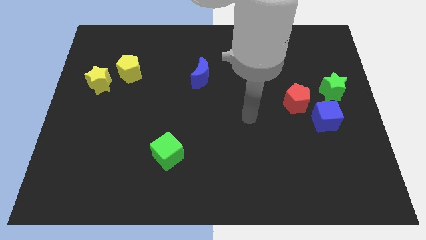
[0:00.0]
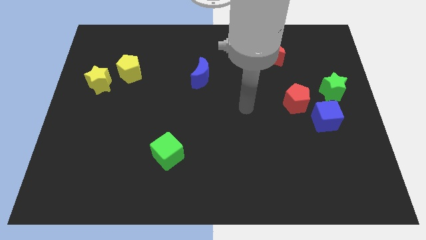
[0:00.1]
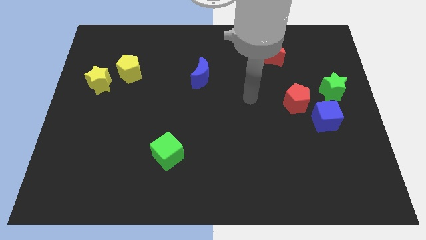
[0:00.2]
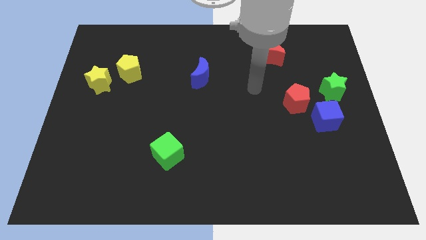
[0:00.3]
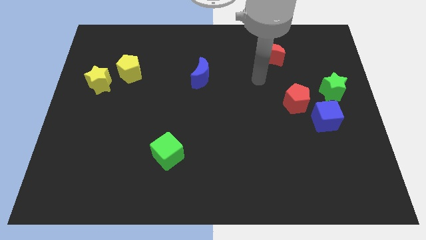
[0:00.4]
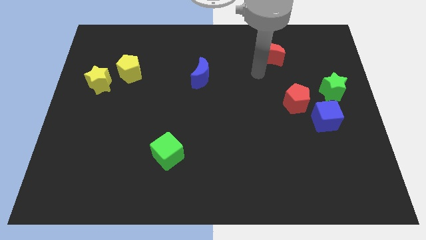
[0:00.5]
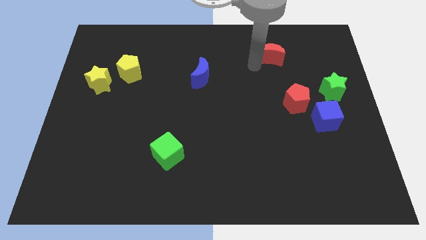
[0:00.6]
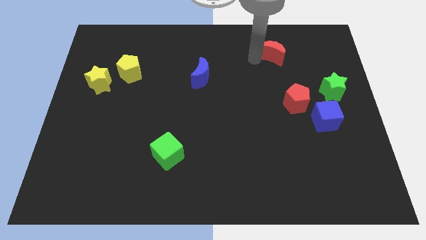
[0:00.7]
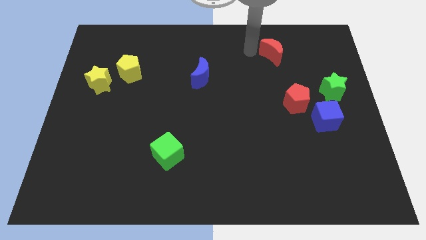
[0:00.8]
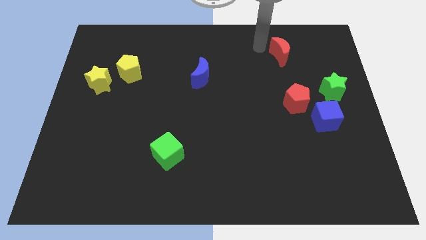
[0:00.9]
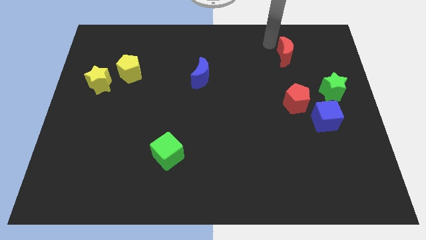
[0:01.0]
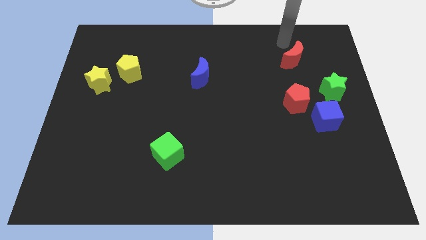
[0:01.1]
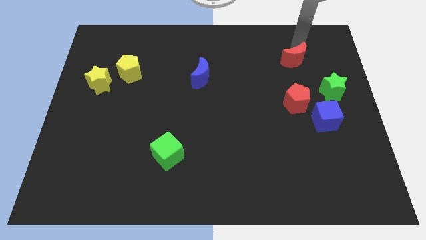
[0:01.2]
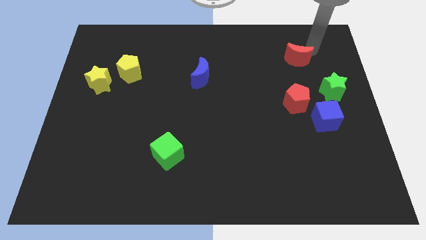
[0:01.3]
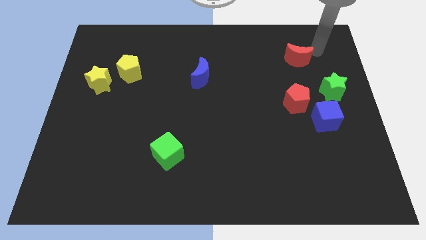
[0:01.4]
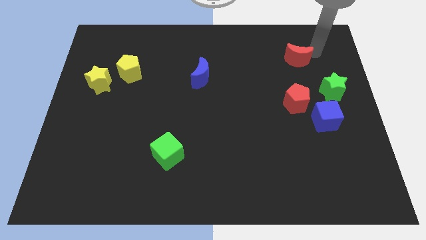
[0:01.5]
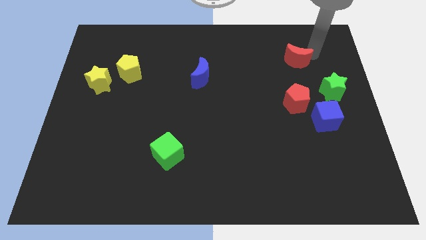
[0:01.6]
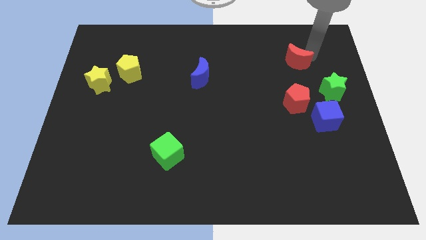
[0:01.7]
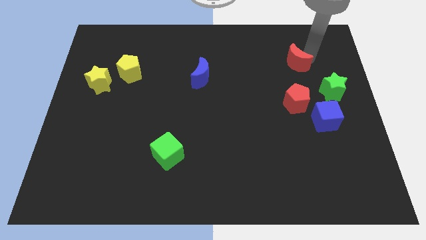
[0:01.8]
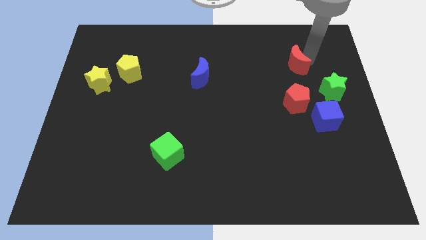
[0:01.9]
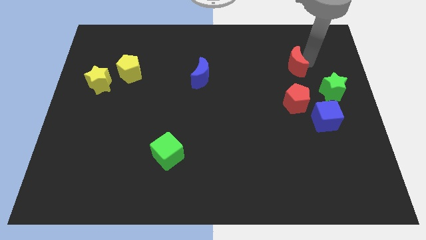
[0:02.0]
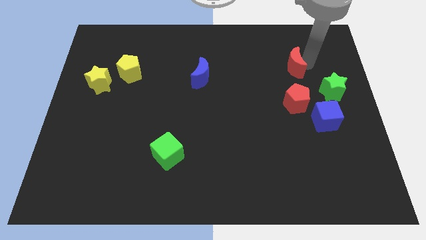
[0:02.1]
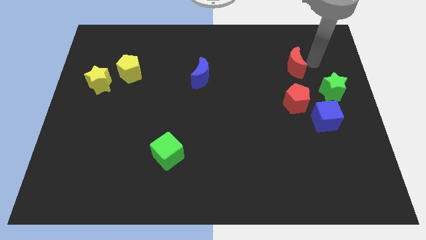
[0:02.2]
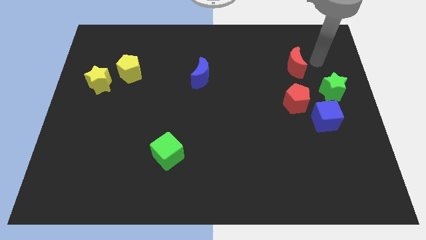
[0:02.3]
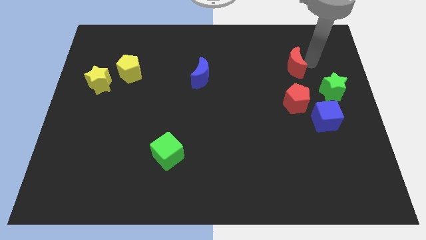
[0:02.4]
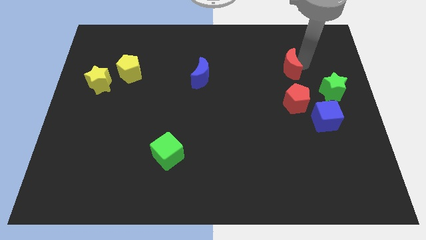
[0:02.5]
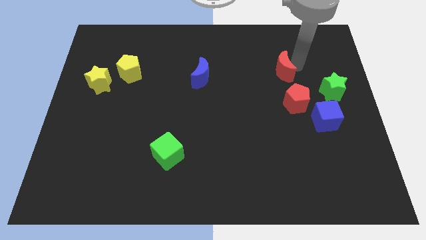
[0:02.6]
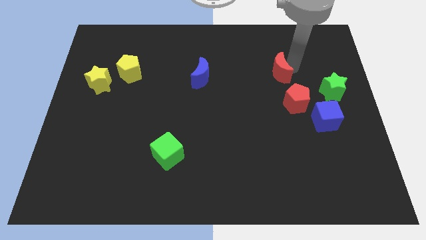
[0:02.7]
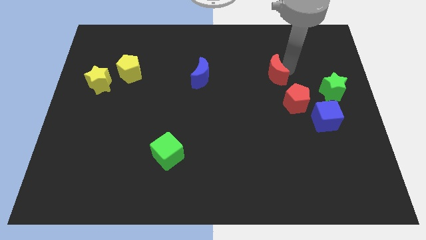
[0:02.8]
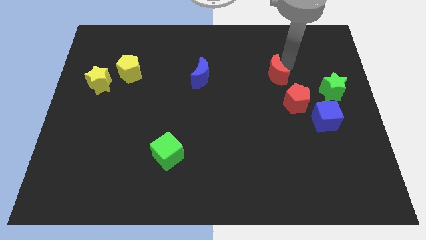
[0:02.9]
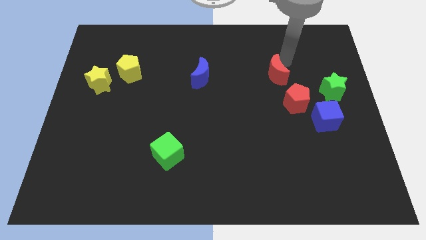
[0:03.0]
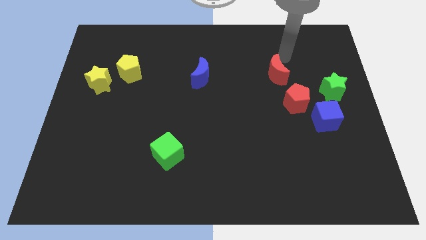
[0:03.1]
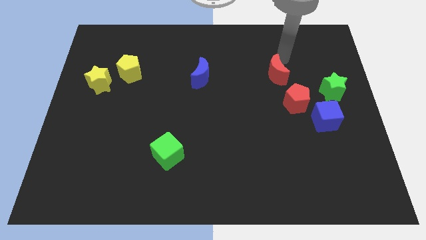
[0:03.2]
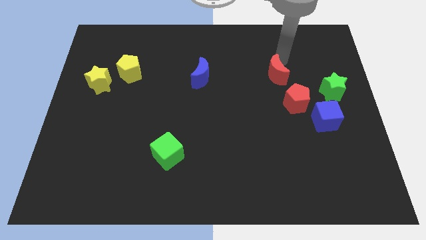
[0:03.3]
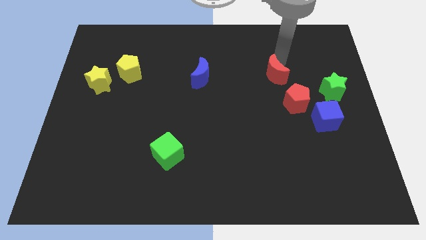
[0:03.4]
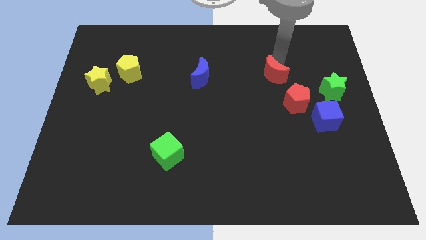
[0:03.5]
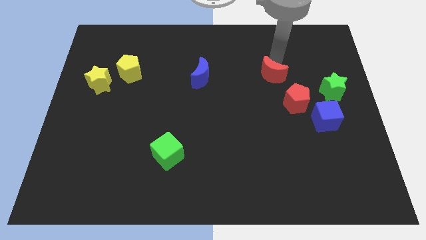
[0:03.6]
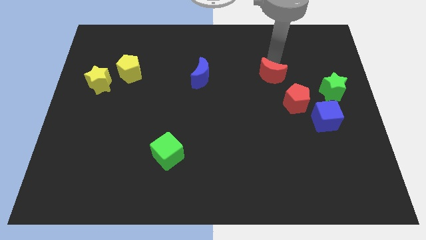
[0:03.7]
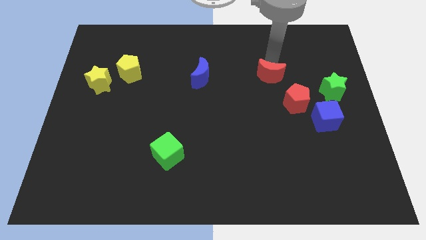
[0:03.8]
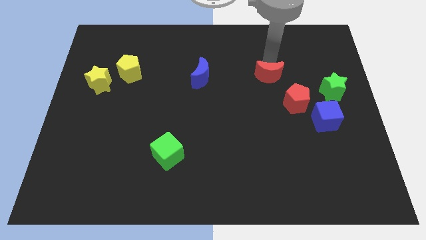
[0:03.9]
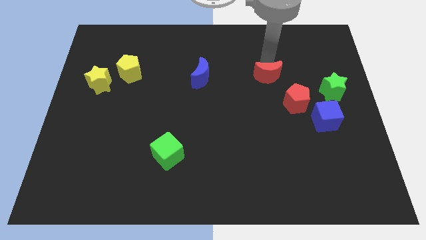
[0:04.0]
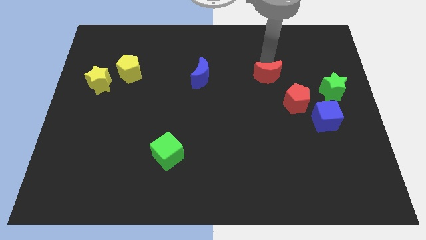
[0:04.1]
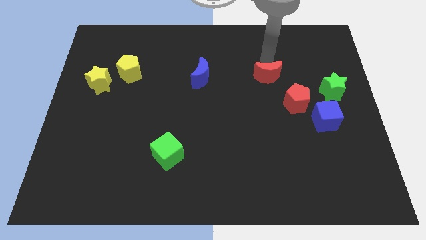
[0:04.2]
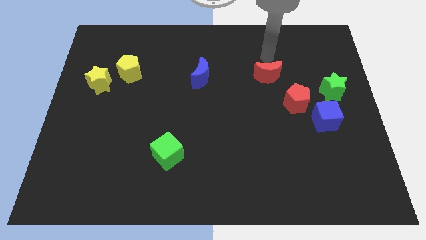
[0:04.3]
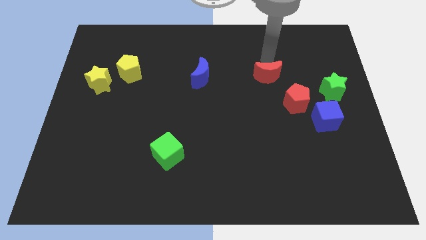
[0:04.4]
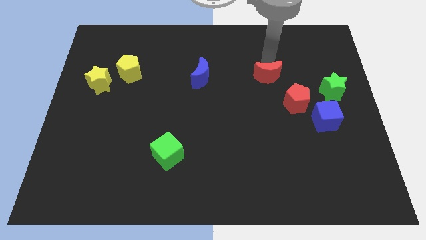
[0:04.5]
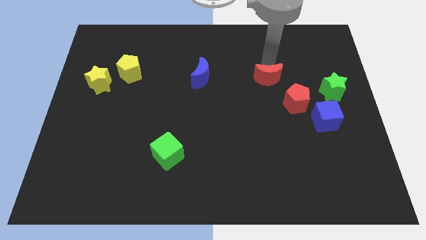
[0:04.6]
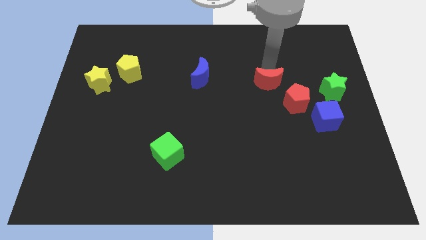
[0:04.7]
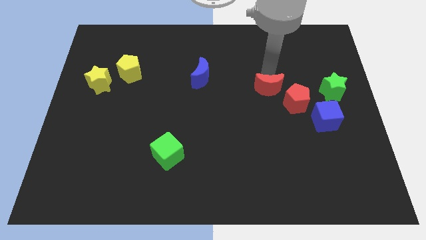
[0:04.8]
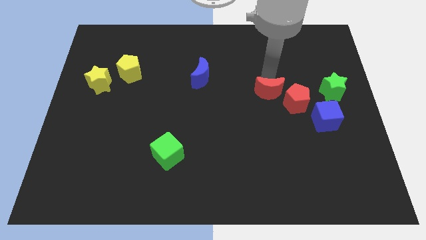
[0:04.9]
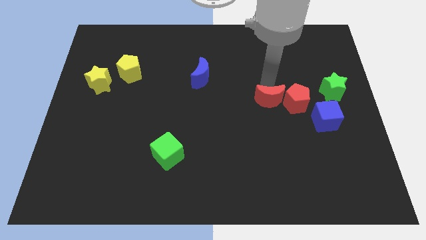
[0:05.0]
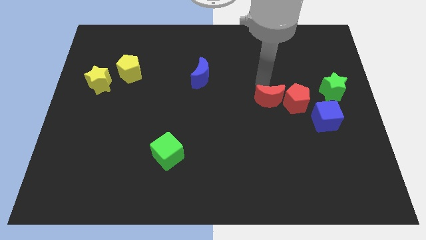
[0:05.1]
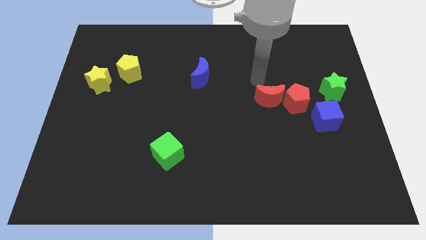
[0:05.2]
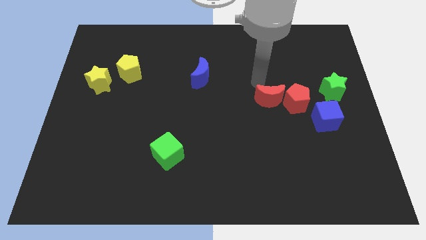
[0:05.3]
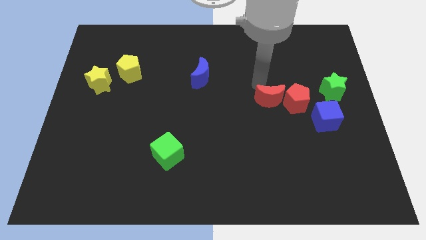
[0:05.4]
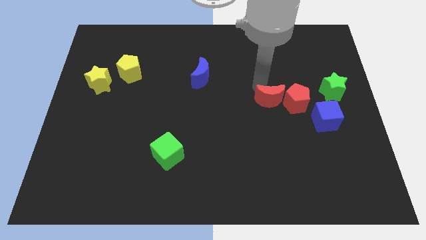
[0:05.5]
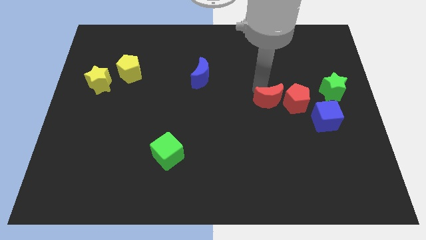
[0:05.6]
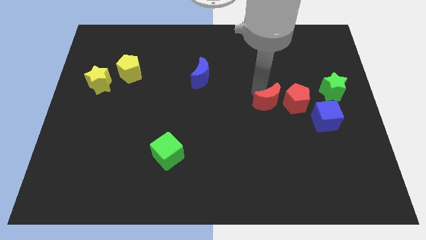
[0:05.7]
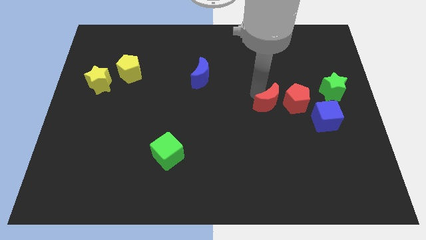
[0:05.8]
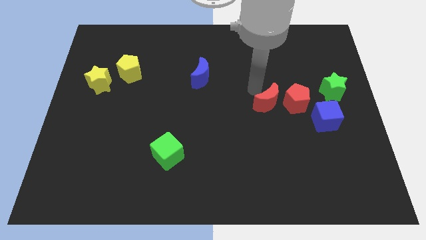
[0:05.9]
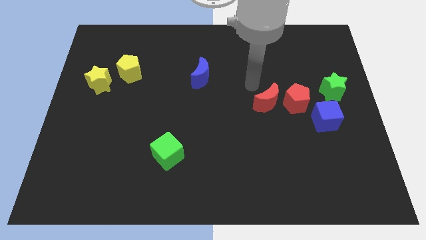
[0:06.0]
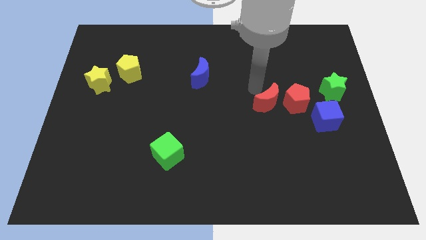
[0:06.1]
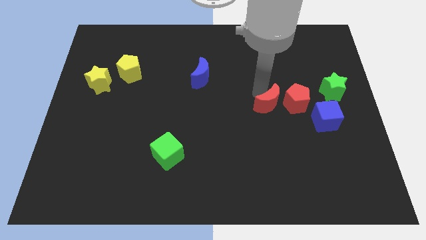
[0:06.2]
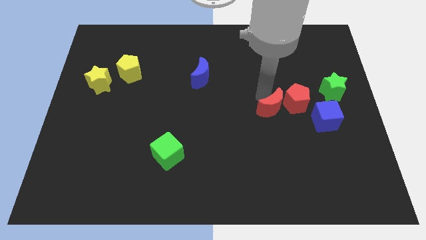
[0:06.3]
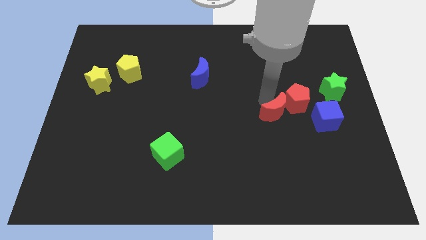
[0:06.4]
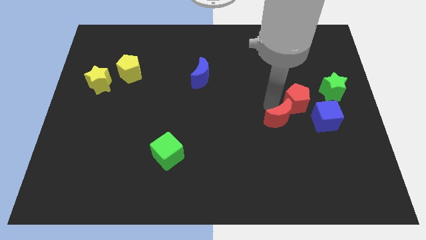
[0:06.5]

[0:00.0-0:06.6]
move the red moon down

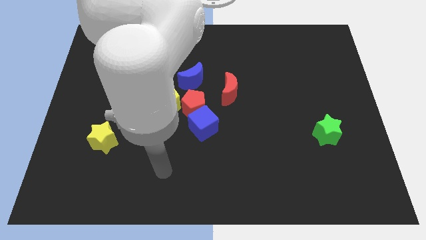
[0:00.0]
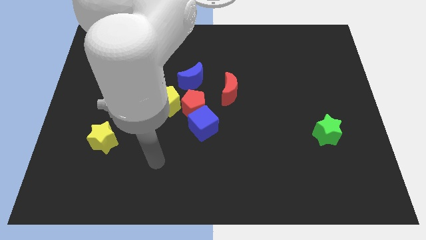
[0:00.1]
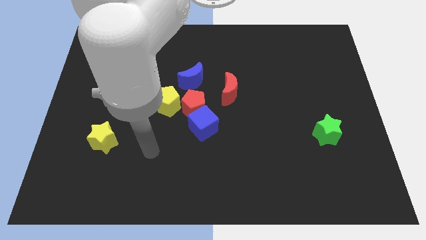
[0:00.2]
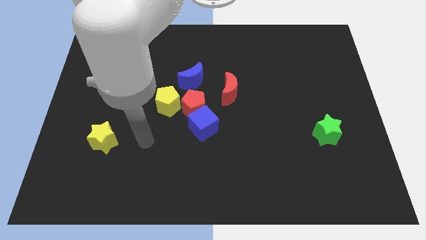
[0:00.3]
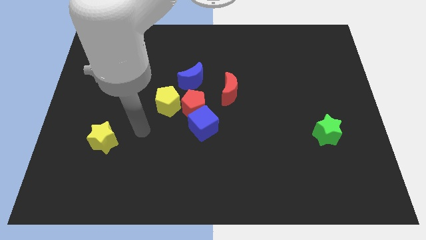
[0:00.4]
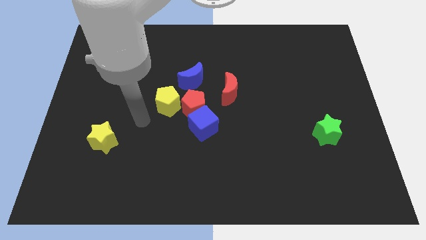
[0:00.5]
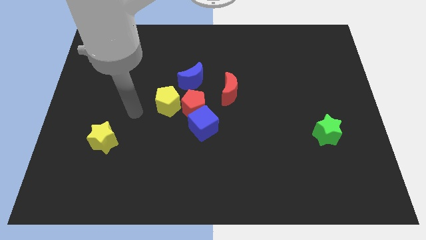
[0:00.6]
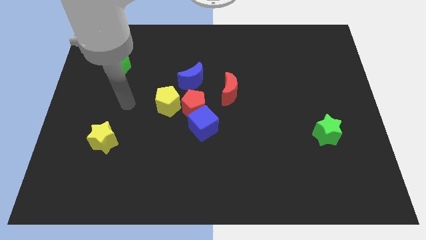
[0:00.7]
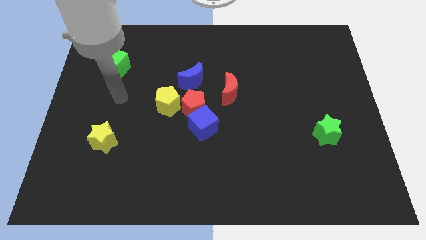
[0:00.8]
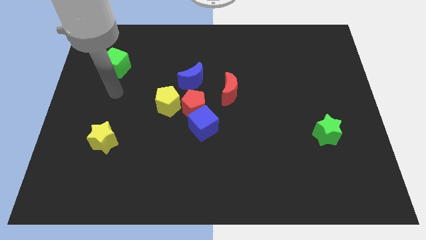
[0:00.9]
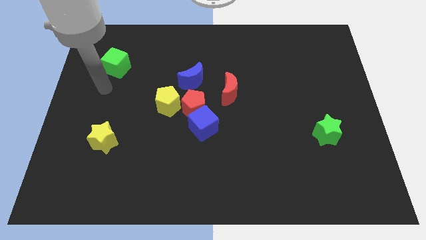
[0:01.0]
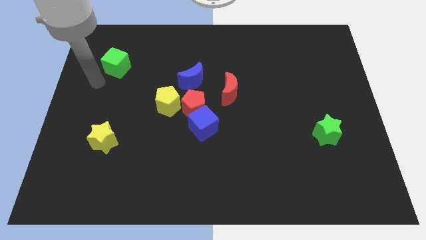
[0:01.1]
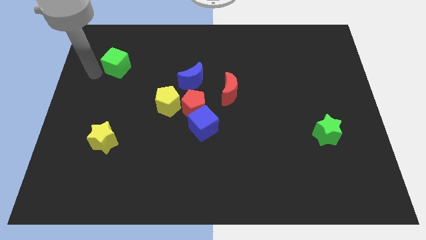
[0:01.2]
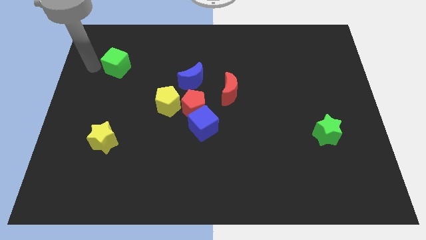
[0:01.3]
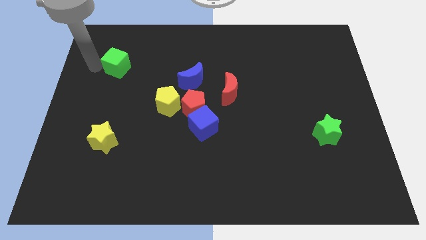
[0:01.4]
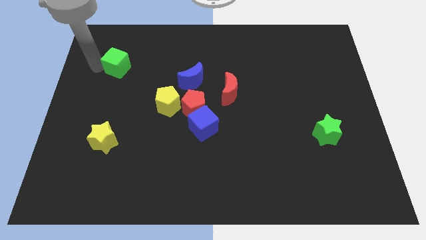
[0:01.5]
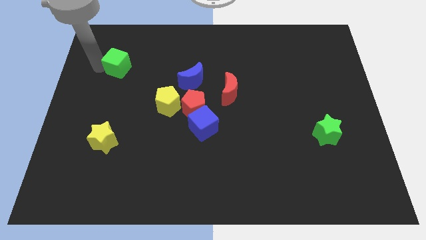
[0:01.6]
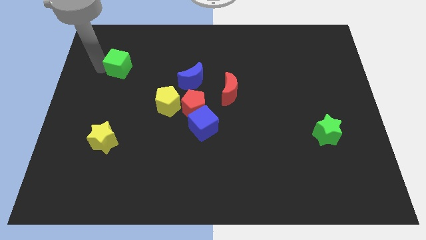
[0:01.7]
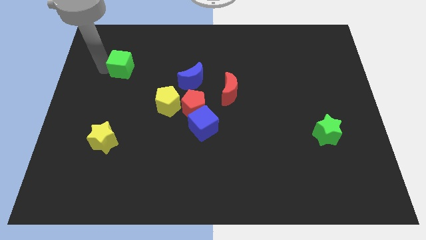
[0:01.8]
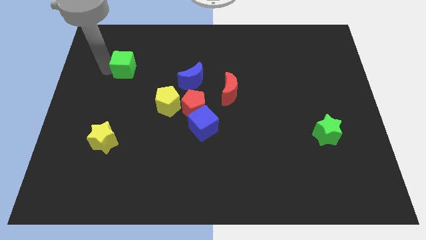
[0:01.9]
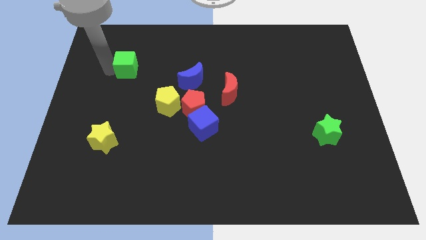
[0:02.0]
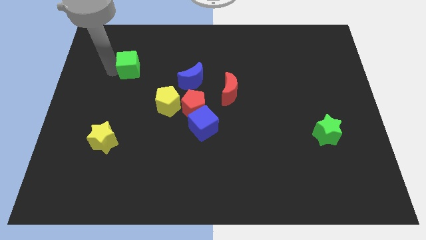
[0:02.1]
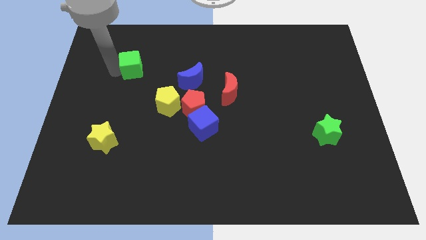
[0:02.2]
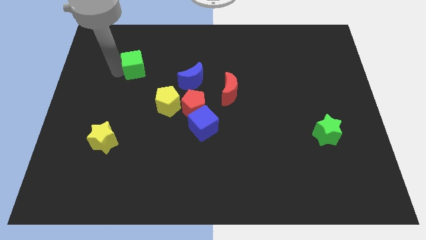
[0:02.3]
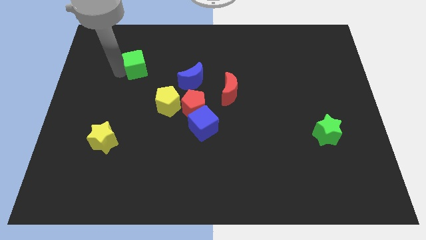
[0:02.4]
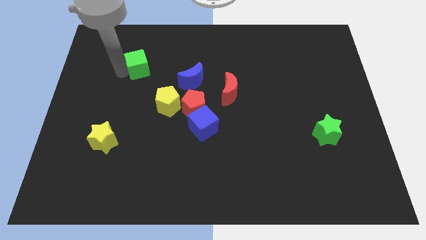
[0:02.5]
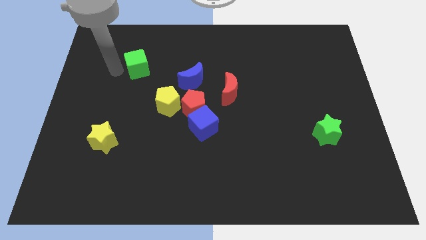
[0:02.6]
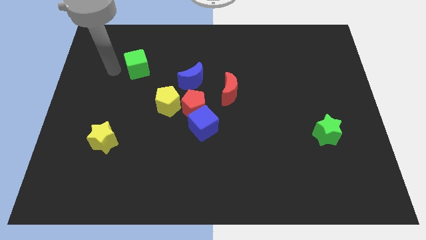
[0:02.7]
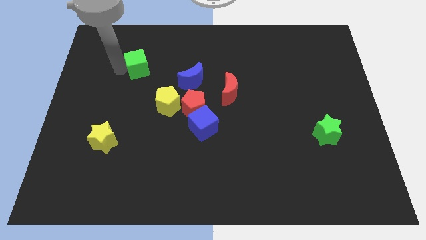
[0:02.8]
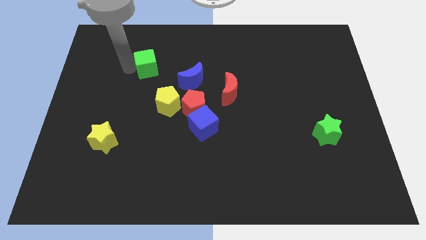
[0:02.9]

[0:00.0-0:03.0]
push the green cube slightly right
